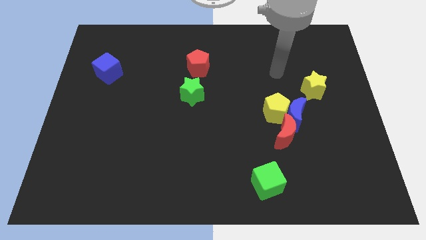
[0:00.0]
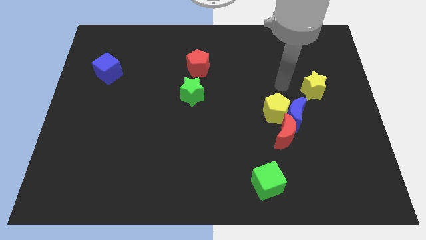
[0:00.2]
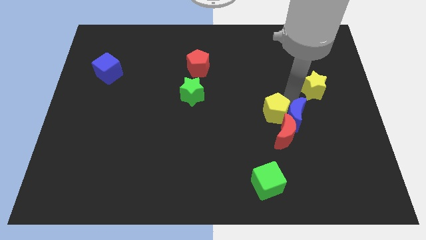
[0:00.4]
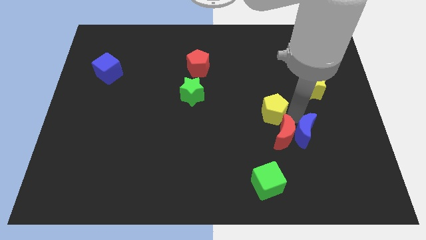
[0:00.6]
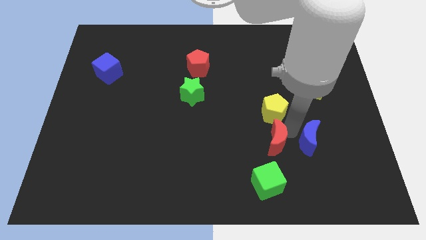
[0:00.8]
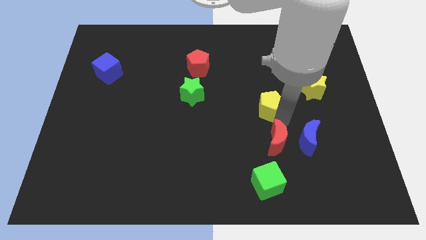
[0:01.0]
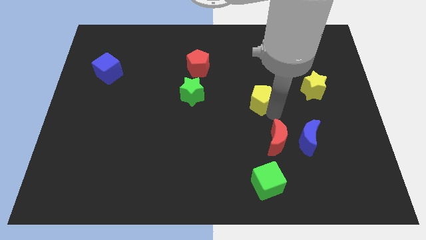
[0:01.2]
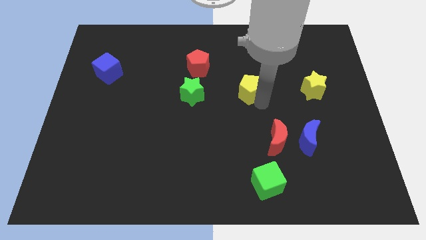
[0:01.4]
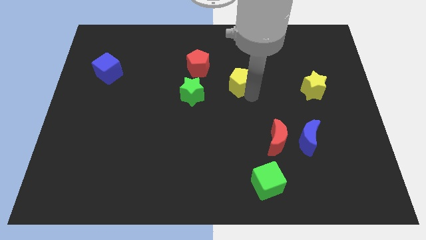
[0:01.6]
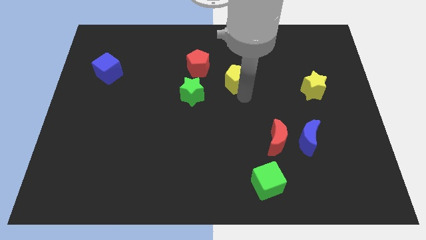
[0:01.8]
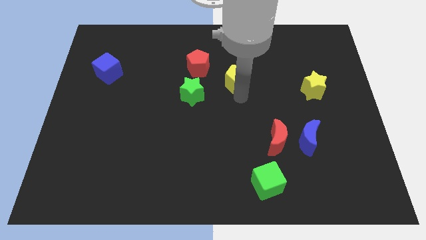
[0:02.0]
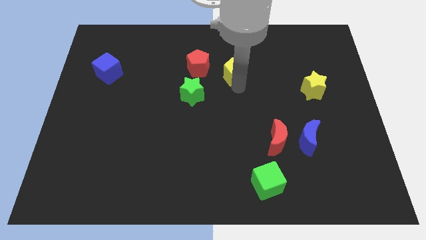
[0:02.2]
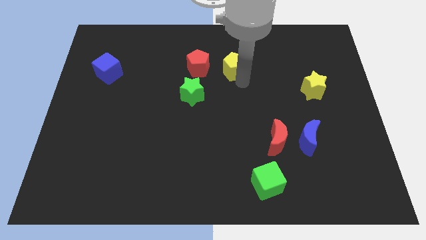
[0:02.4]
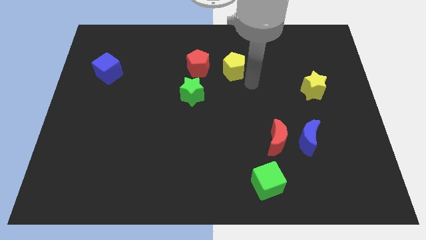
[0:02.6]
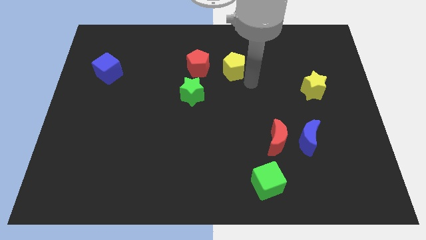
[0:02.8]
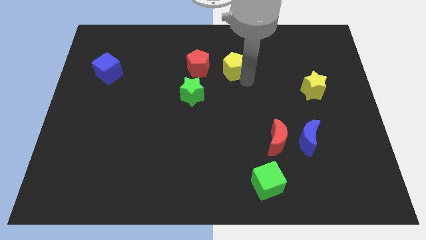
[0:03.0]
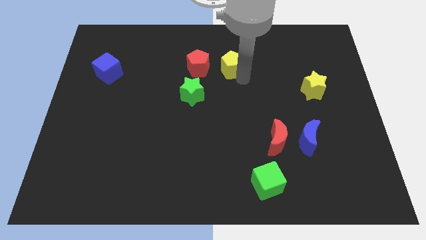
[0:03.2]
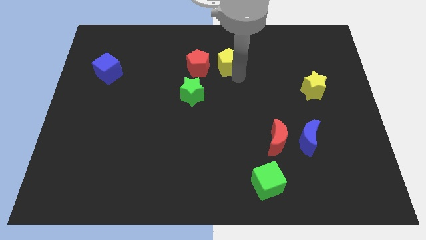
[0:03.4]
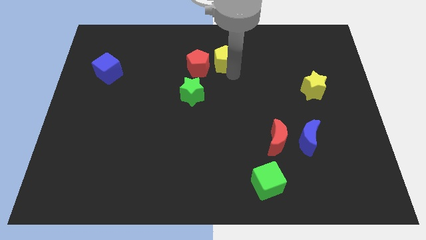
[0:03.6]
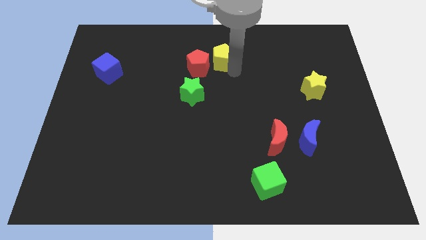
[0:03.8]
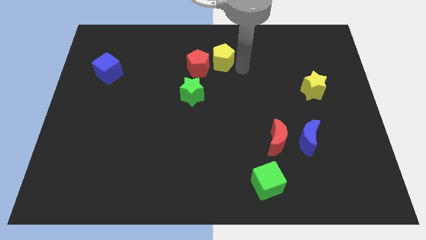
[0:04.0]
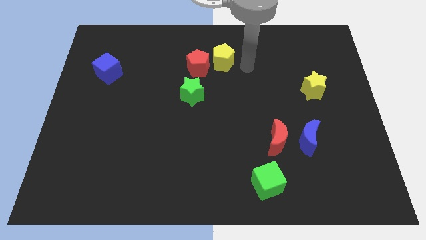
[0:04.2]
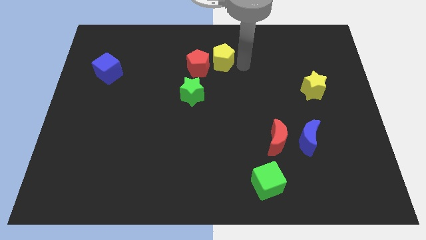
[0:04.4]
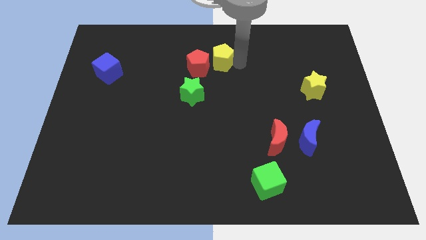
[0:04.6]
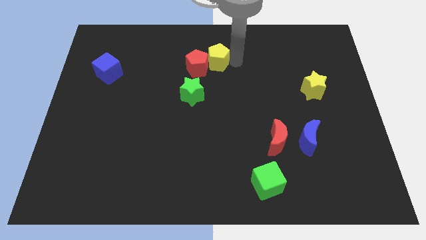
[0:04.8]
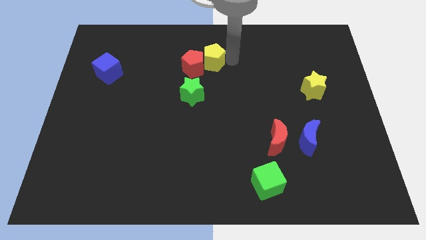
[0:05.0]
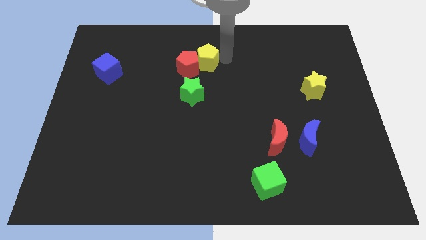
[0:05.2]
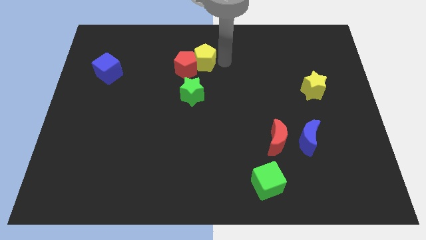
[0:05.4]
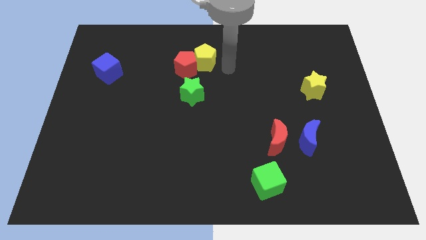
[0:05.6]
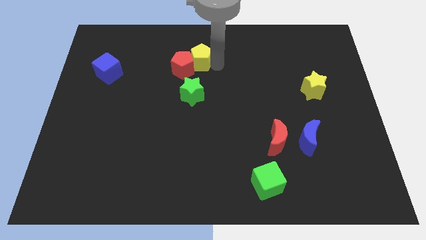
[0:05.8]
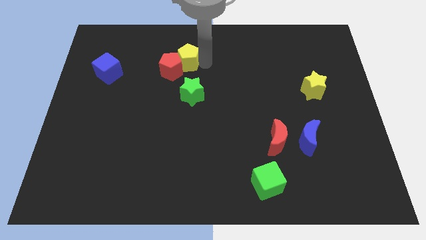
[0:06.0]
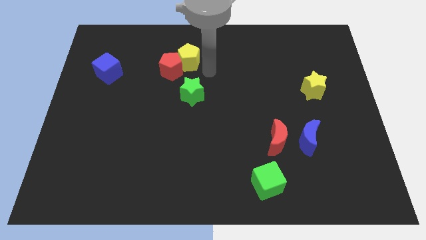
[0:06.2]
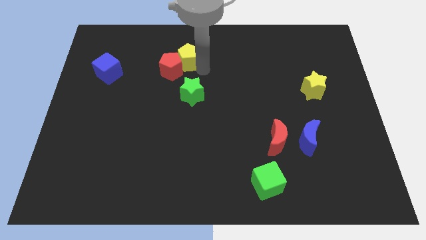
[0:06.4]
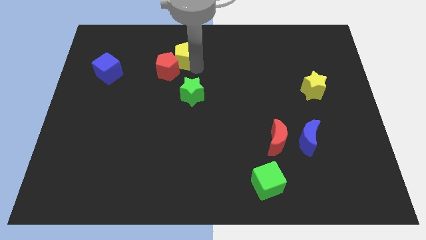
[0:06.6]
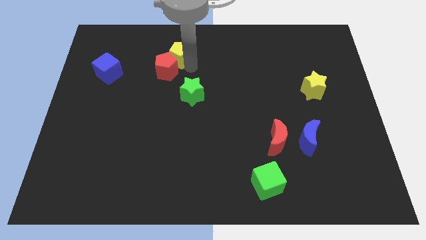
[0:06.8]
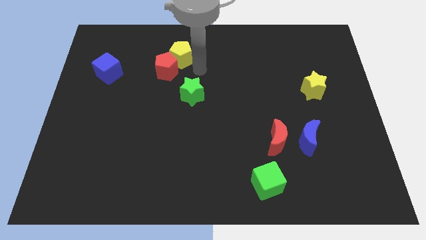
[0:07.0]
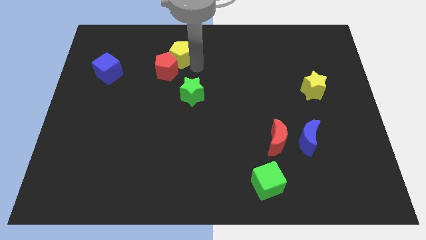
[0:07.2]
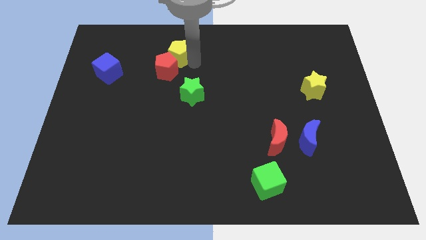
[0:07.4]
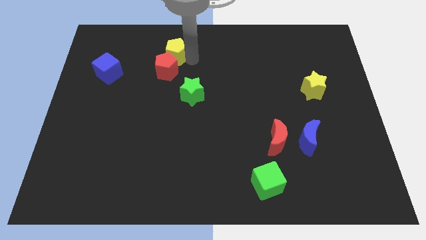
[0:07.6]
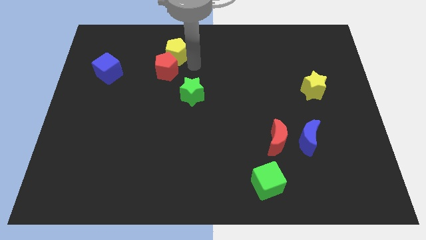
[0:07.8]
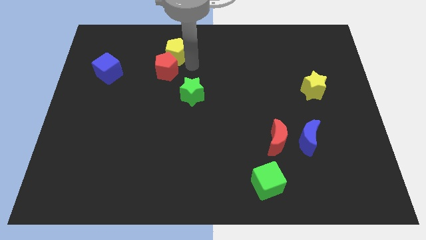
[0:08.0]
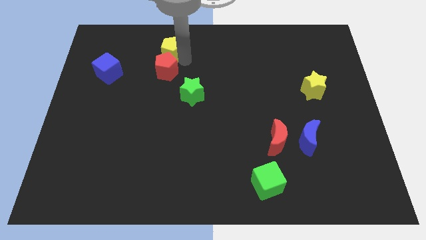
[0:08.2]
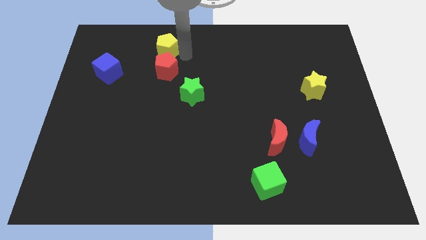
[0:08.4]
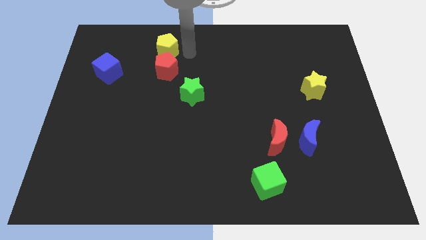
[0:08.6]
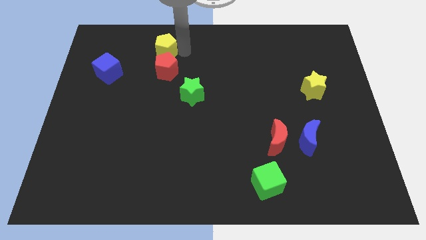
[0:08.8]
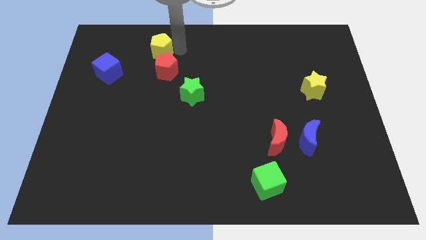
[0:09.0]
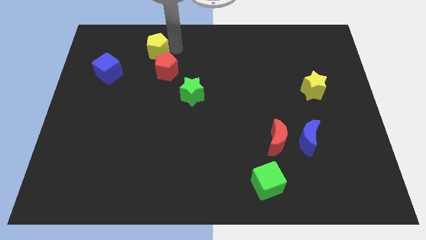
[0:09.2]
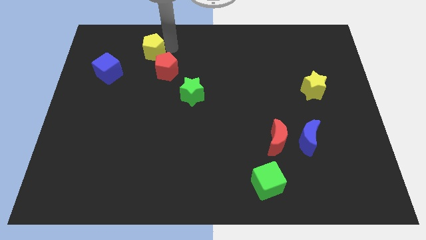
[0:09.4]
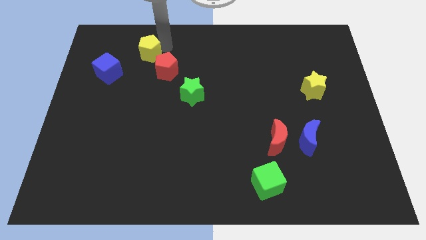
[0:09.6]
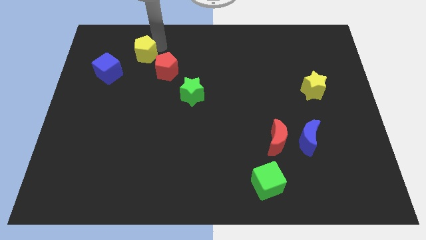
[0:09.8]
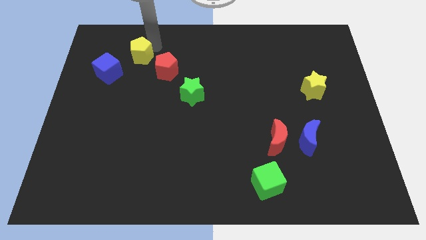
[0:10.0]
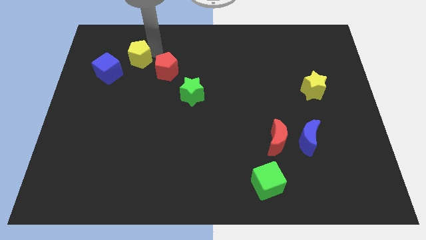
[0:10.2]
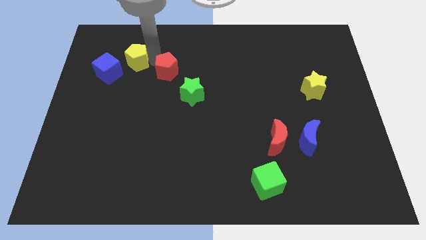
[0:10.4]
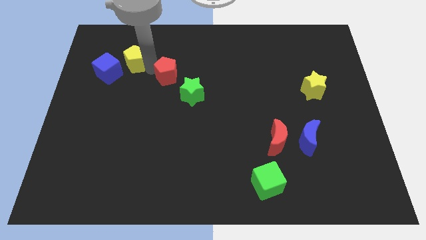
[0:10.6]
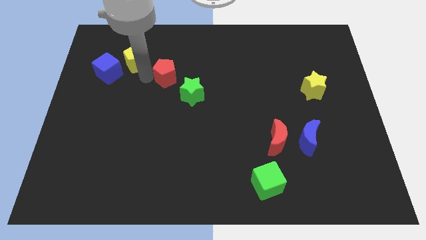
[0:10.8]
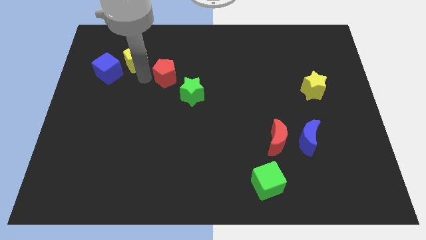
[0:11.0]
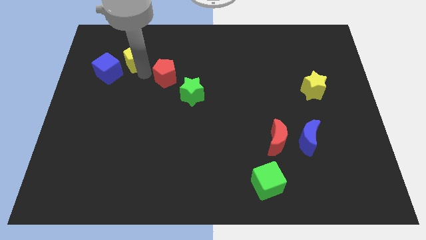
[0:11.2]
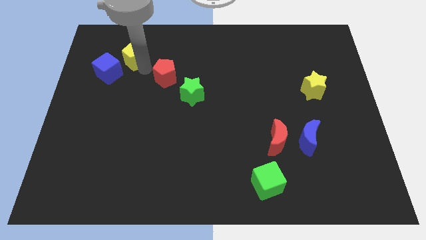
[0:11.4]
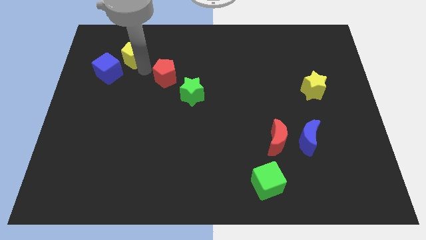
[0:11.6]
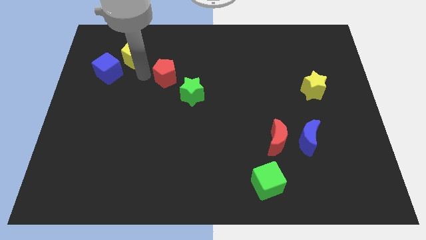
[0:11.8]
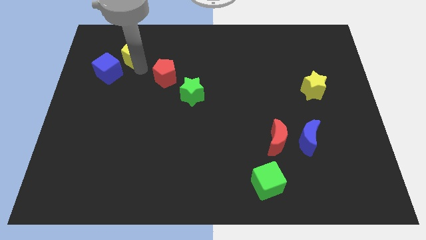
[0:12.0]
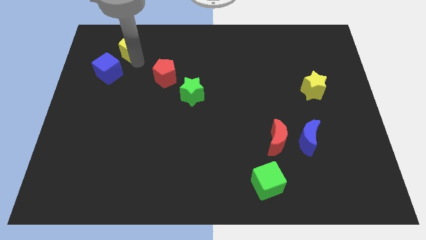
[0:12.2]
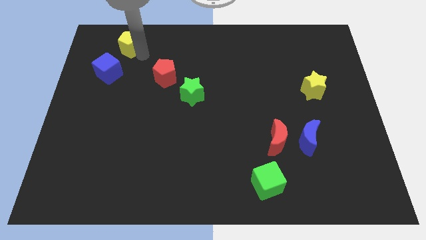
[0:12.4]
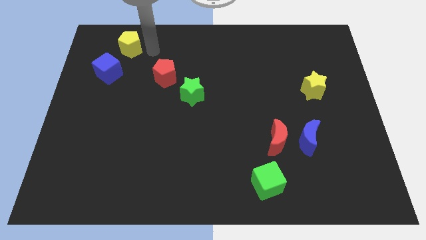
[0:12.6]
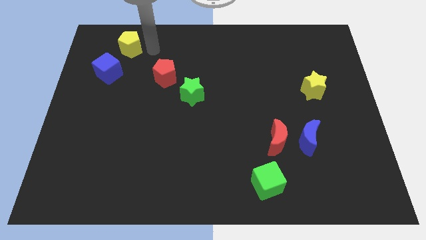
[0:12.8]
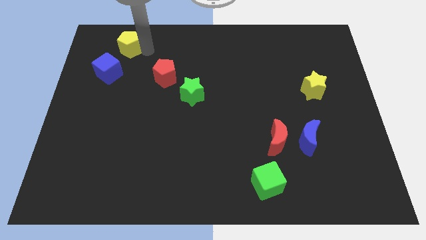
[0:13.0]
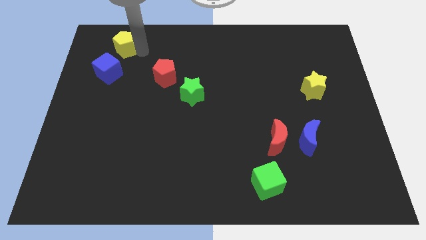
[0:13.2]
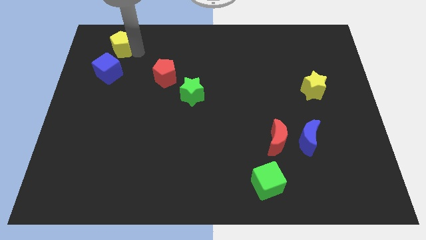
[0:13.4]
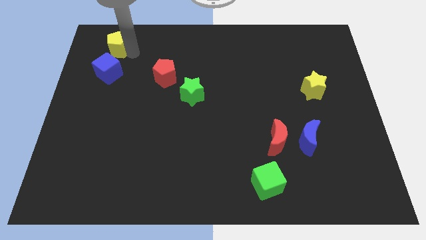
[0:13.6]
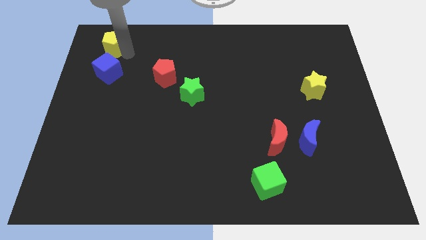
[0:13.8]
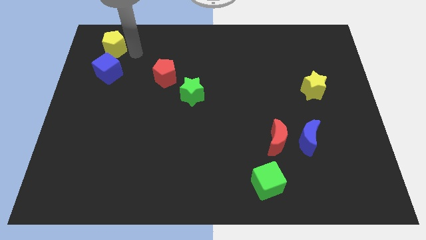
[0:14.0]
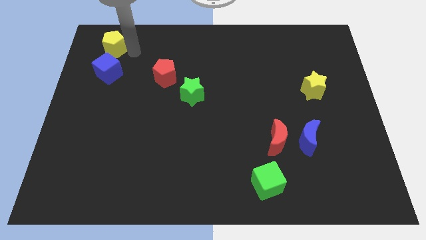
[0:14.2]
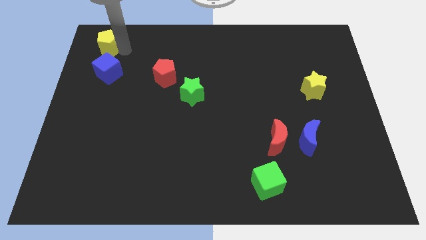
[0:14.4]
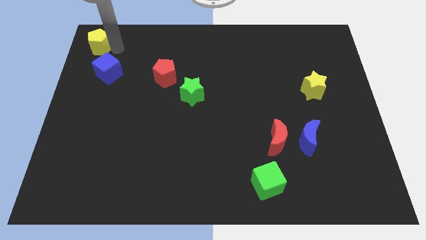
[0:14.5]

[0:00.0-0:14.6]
slide the yellow pentagon to the top left of the board
